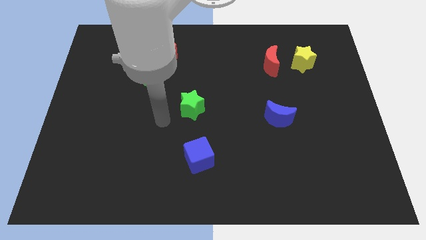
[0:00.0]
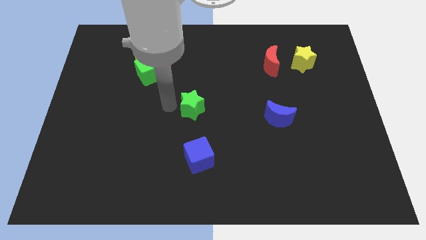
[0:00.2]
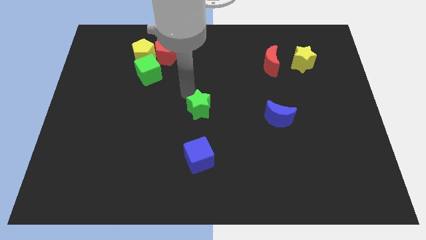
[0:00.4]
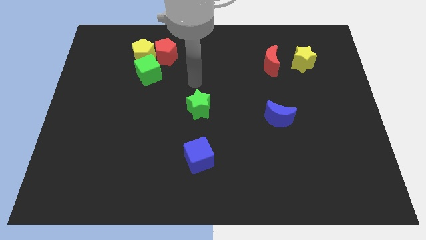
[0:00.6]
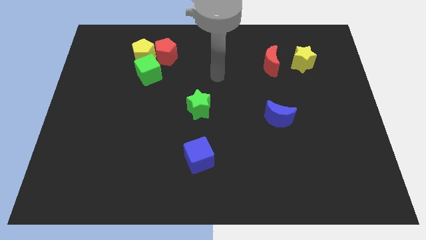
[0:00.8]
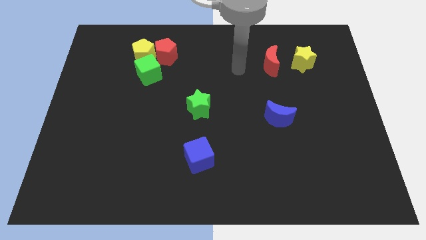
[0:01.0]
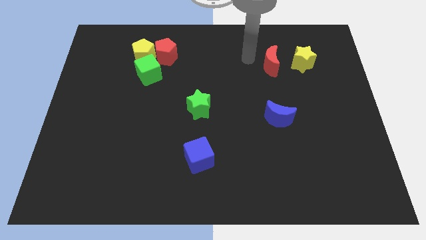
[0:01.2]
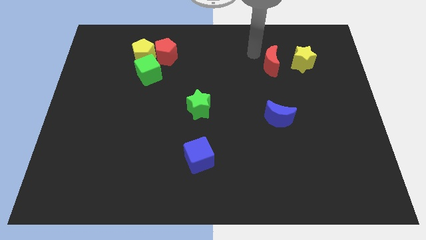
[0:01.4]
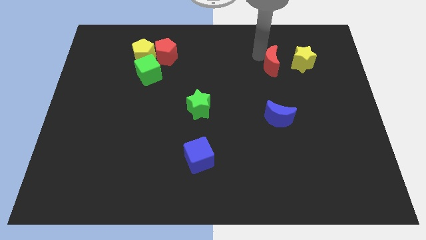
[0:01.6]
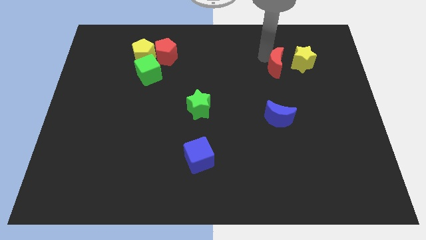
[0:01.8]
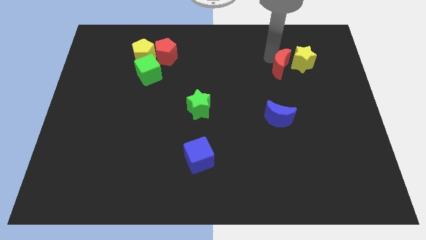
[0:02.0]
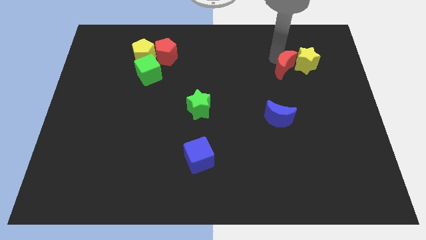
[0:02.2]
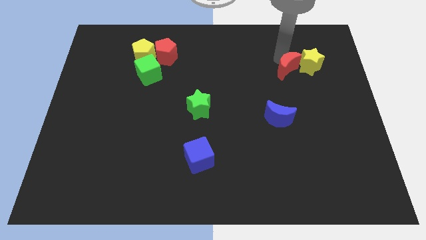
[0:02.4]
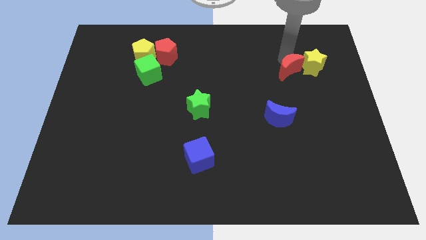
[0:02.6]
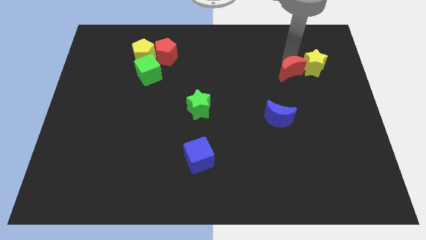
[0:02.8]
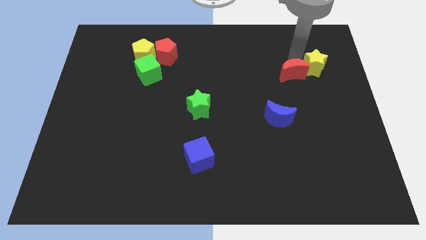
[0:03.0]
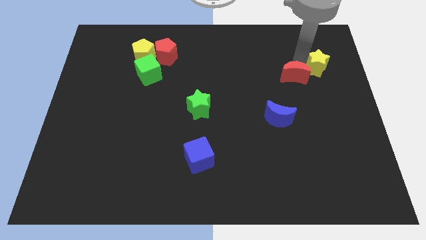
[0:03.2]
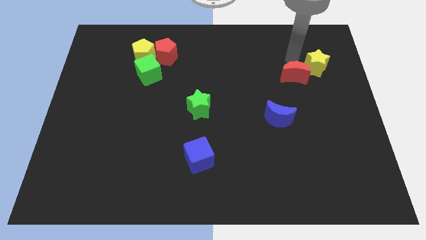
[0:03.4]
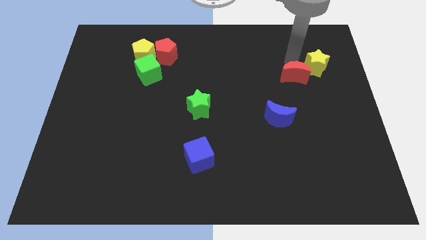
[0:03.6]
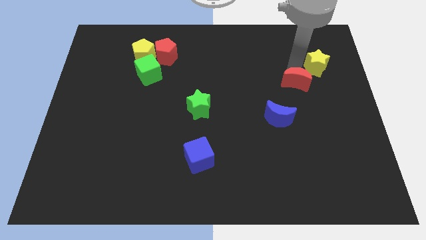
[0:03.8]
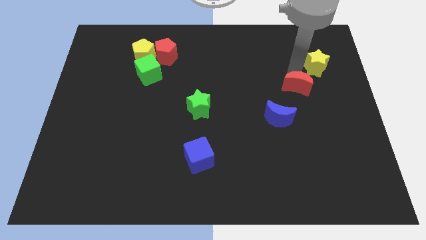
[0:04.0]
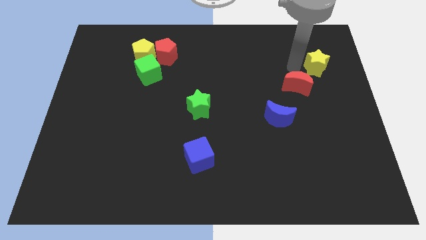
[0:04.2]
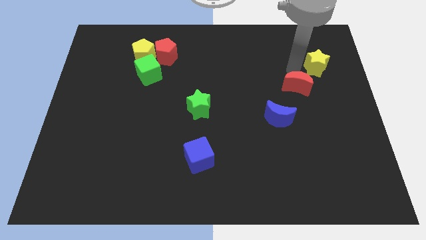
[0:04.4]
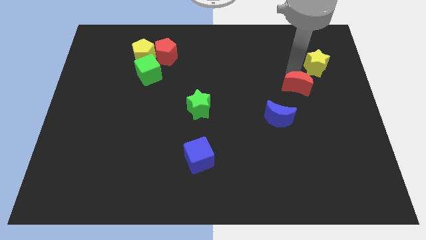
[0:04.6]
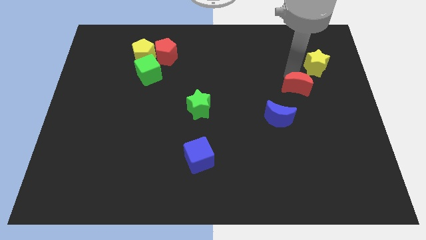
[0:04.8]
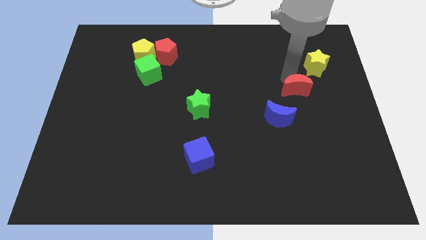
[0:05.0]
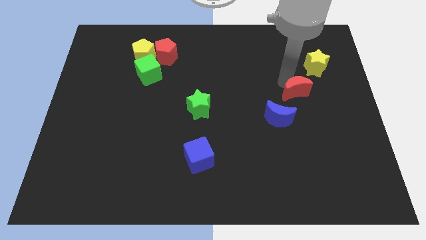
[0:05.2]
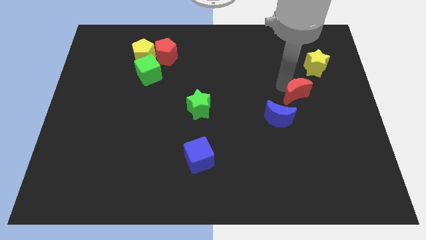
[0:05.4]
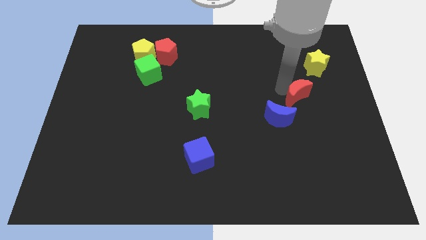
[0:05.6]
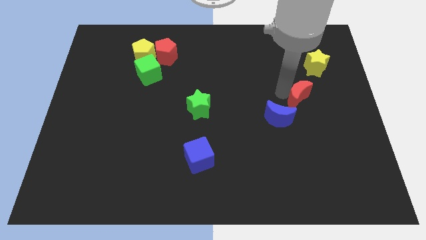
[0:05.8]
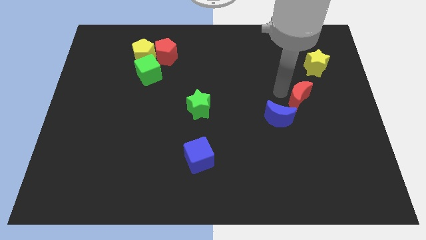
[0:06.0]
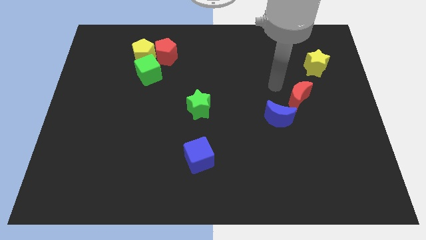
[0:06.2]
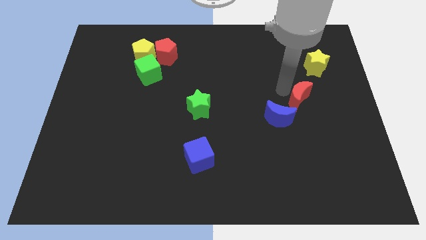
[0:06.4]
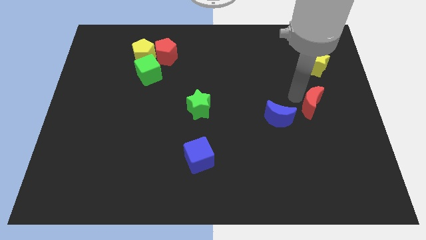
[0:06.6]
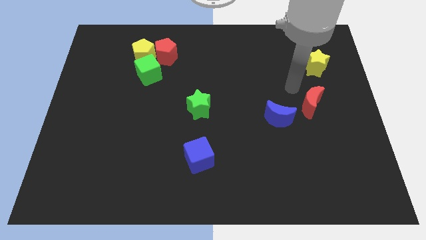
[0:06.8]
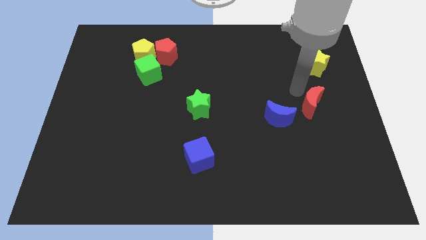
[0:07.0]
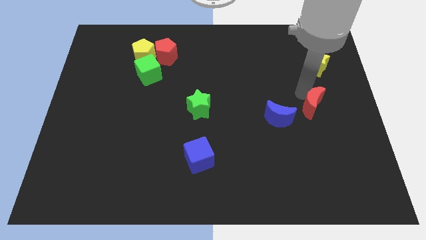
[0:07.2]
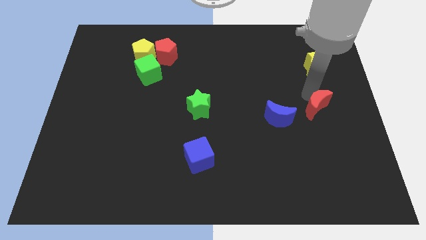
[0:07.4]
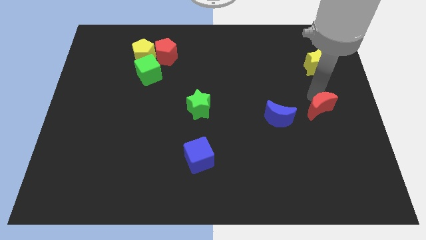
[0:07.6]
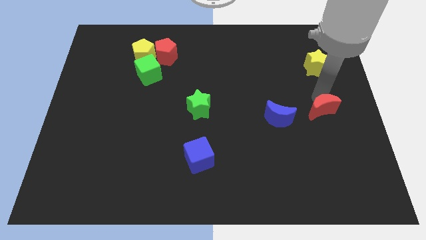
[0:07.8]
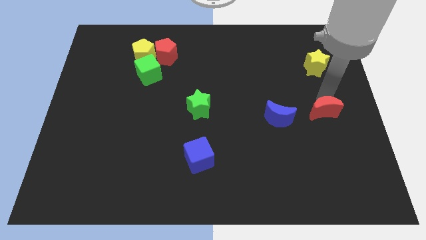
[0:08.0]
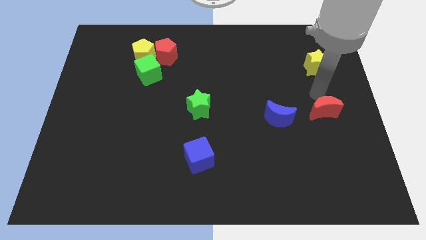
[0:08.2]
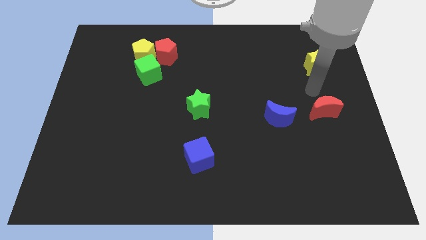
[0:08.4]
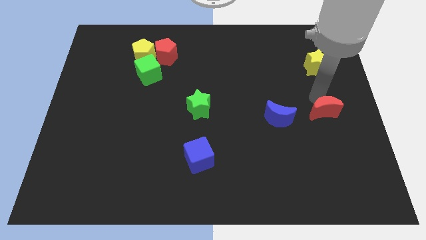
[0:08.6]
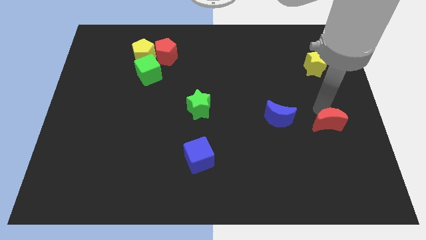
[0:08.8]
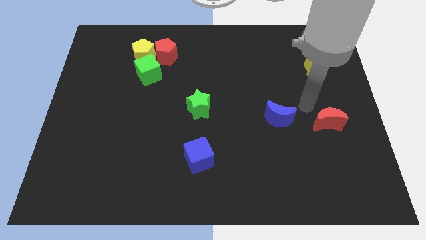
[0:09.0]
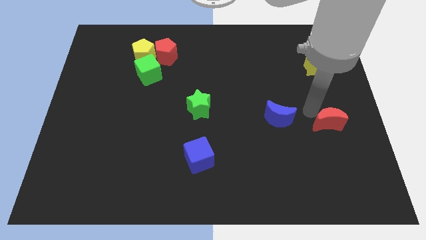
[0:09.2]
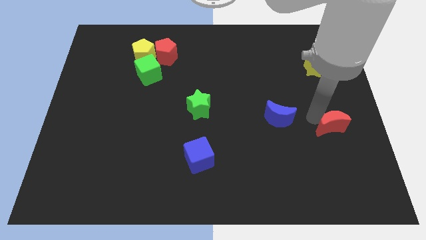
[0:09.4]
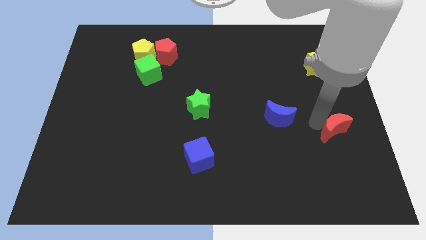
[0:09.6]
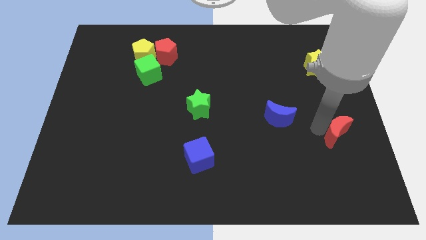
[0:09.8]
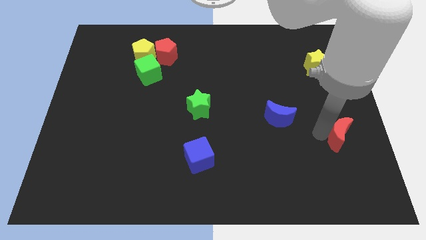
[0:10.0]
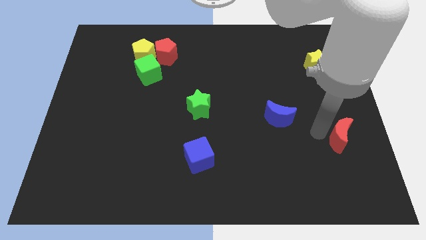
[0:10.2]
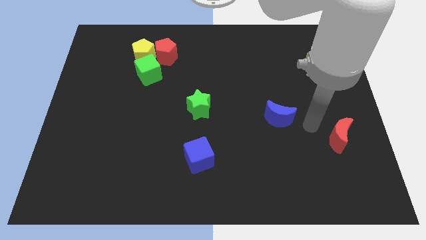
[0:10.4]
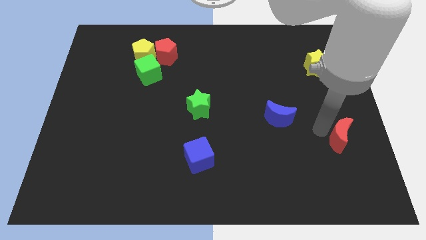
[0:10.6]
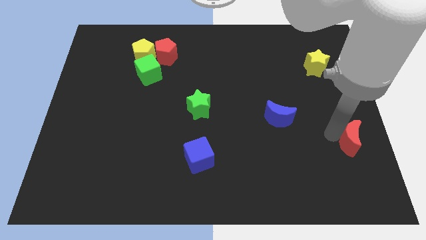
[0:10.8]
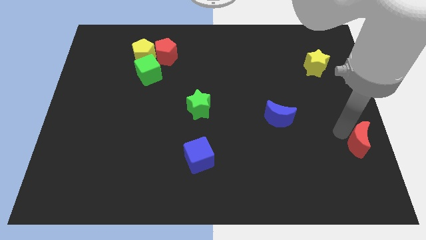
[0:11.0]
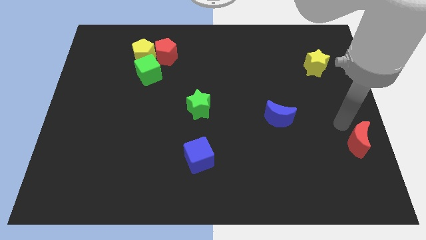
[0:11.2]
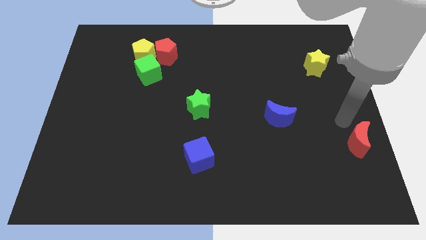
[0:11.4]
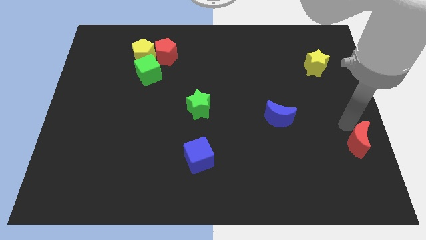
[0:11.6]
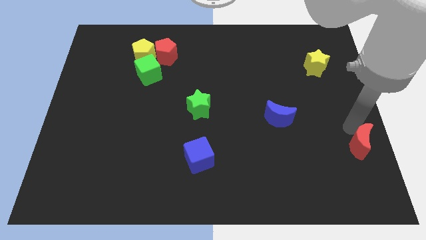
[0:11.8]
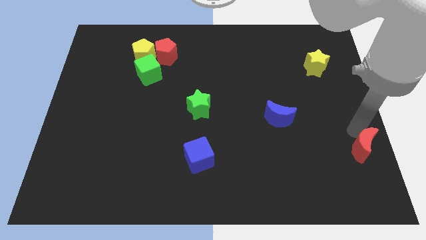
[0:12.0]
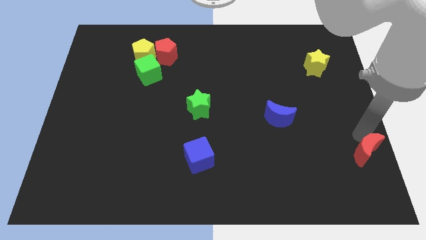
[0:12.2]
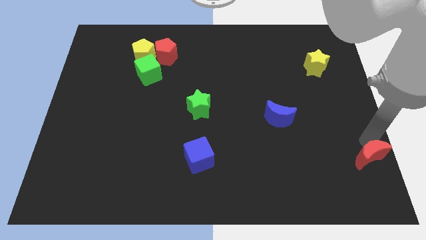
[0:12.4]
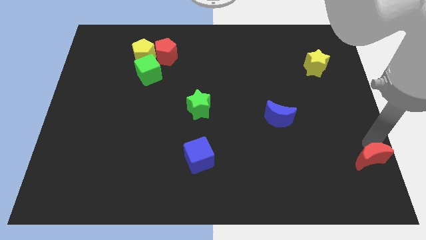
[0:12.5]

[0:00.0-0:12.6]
slide the red moon to the bottom right of the board
